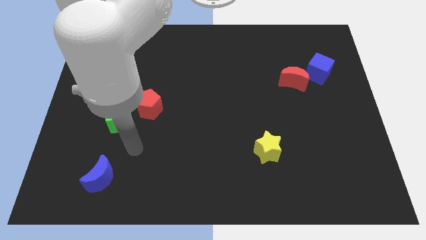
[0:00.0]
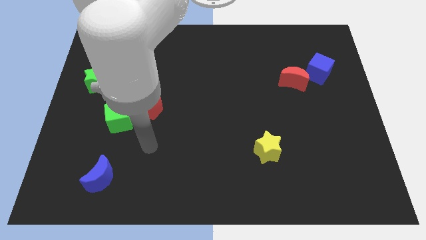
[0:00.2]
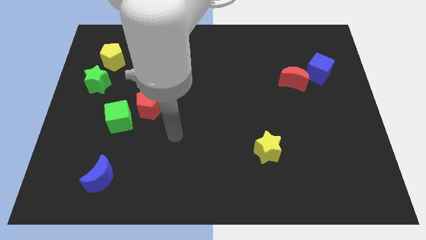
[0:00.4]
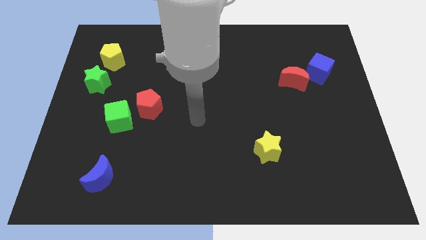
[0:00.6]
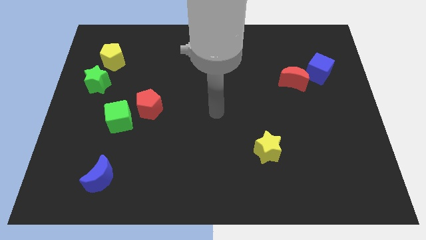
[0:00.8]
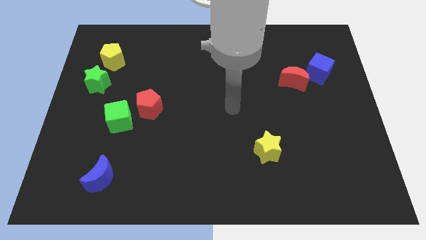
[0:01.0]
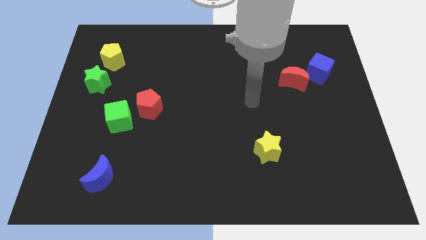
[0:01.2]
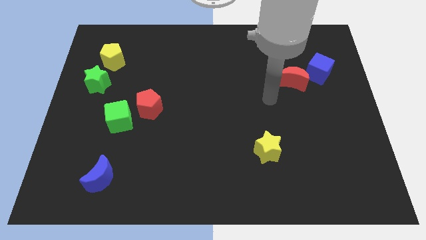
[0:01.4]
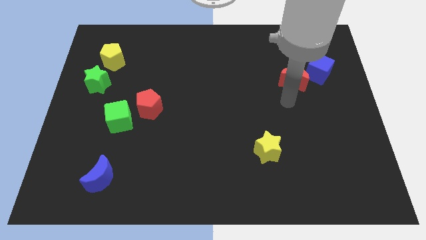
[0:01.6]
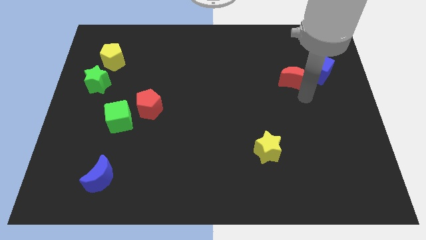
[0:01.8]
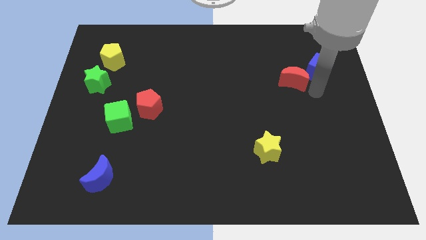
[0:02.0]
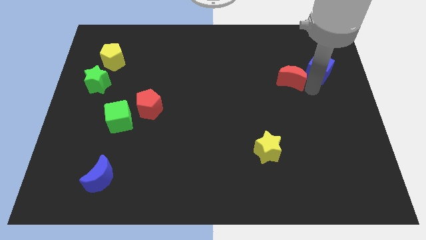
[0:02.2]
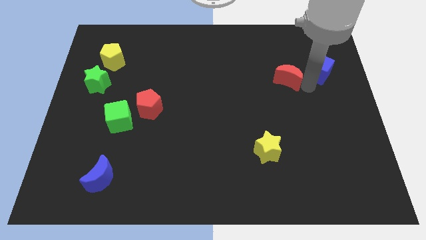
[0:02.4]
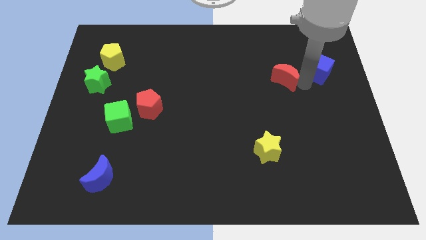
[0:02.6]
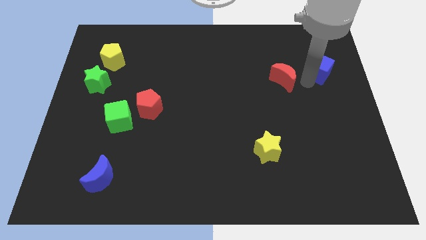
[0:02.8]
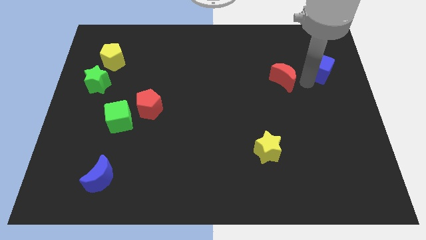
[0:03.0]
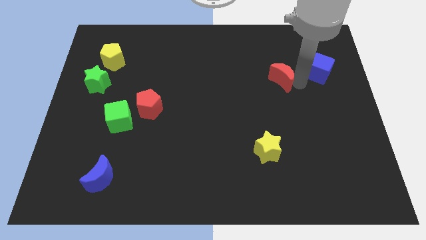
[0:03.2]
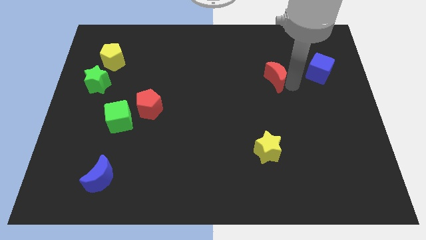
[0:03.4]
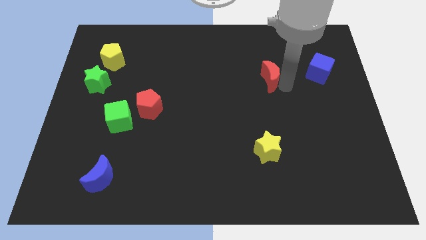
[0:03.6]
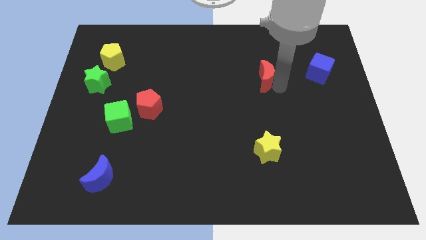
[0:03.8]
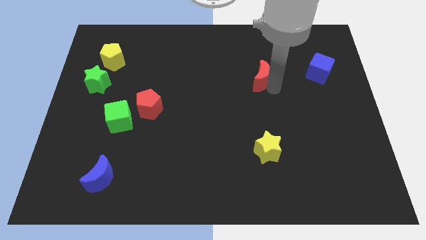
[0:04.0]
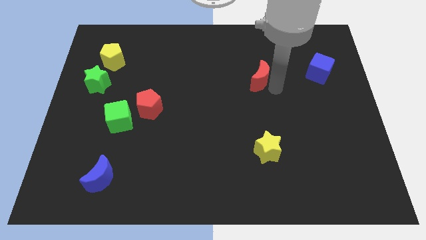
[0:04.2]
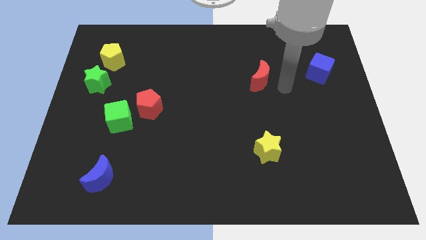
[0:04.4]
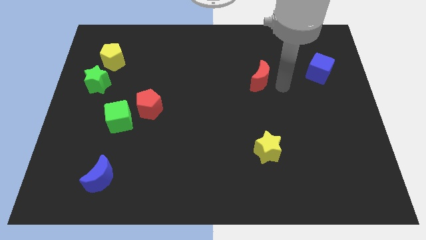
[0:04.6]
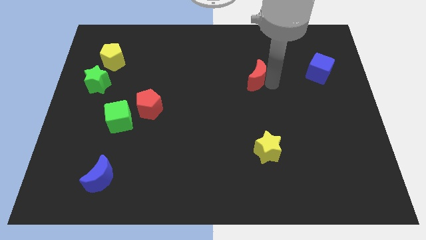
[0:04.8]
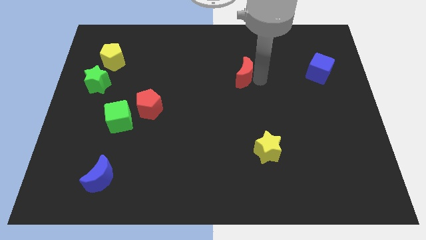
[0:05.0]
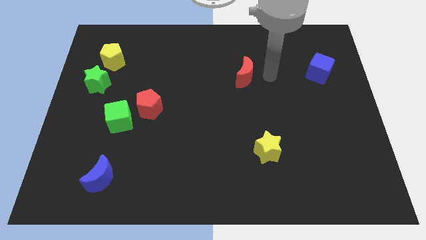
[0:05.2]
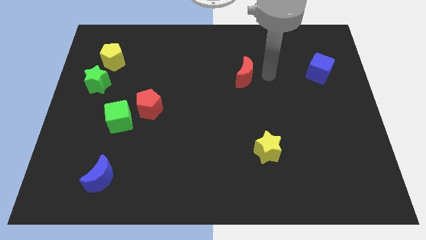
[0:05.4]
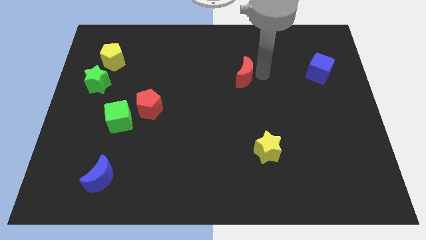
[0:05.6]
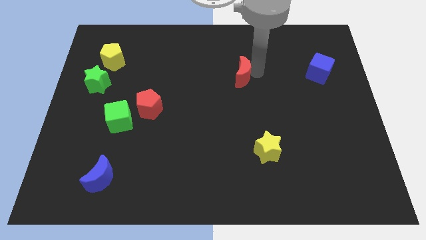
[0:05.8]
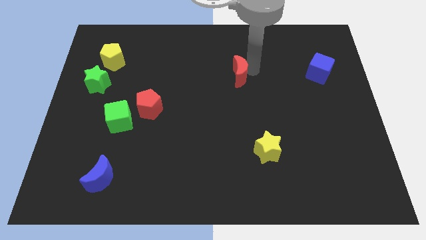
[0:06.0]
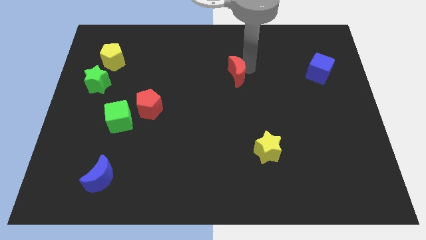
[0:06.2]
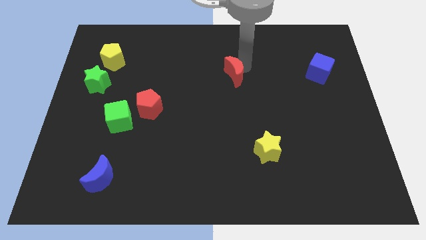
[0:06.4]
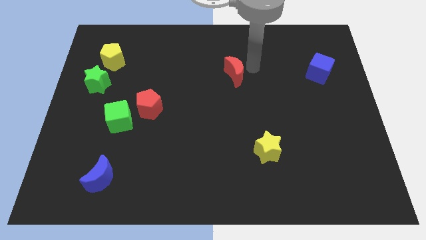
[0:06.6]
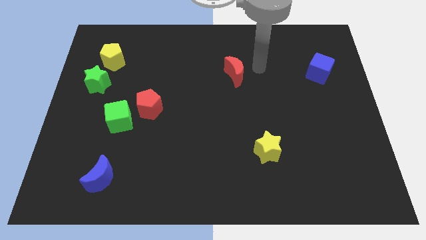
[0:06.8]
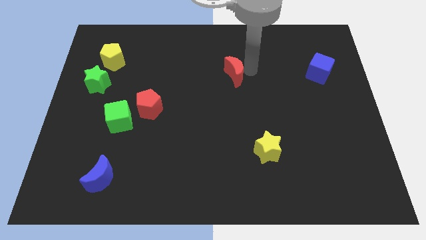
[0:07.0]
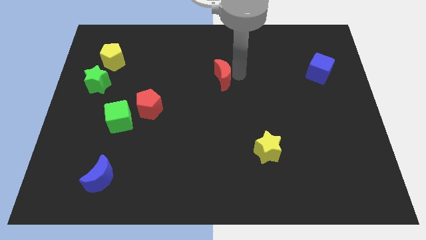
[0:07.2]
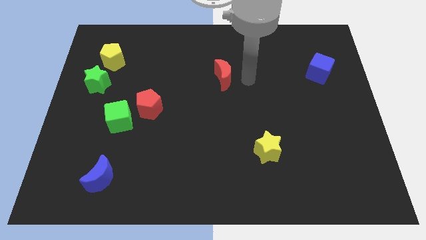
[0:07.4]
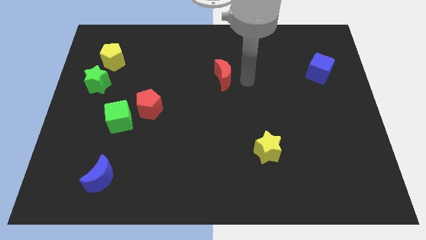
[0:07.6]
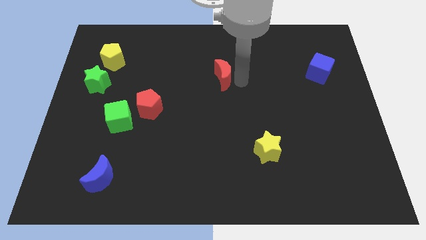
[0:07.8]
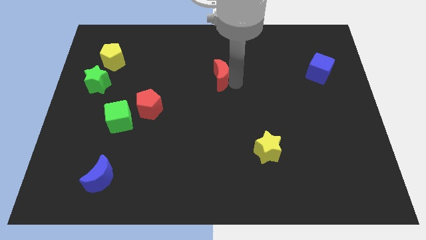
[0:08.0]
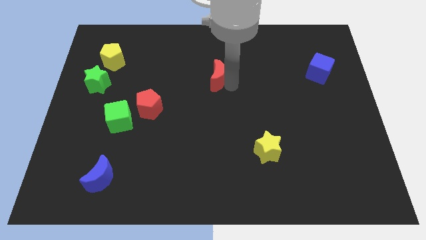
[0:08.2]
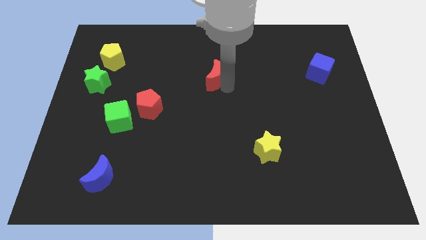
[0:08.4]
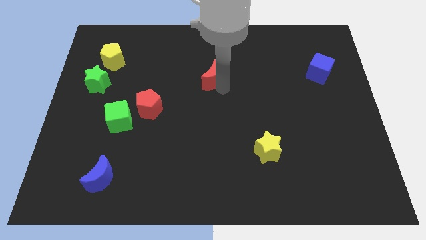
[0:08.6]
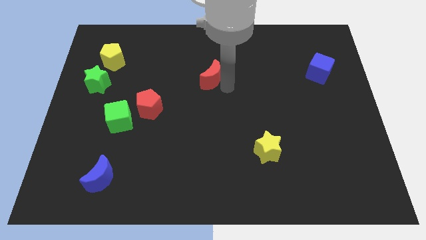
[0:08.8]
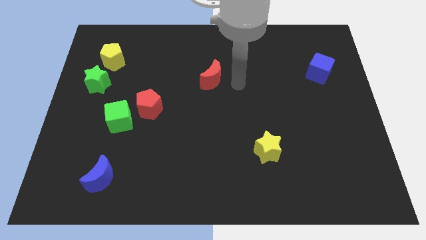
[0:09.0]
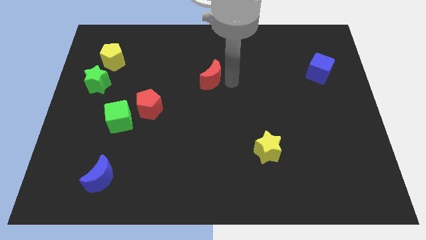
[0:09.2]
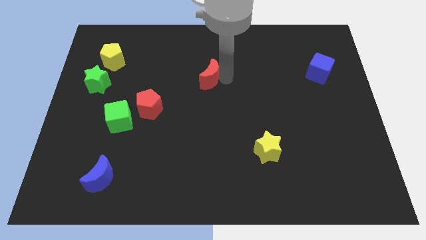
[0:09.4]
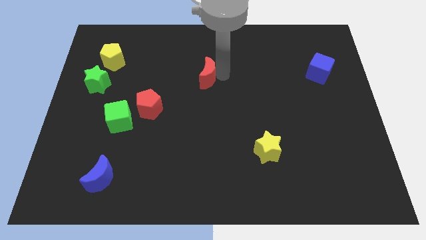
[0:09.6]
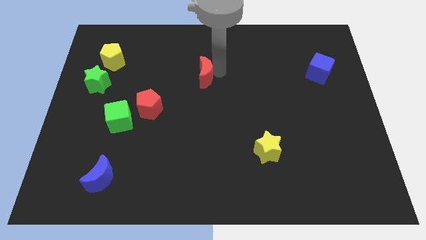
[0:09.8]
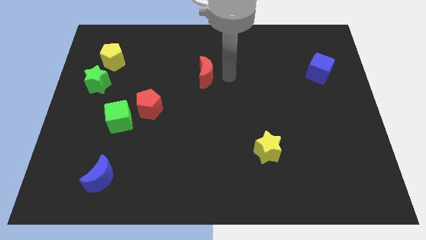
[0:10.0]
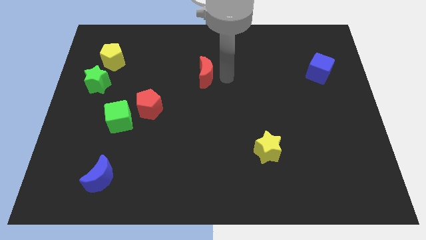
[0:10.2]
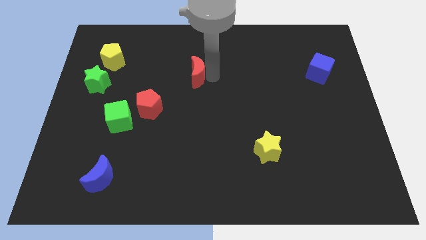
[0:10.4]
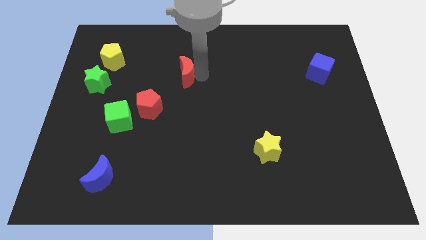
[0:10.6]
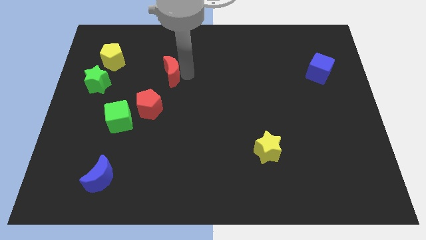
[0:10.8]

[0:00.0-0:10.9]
put the red moon to the top of the red pentagon

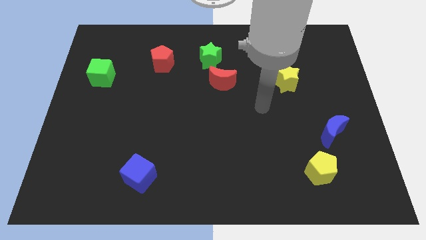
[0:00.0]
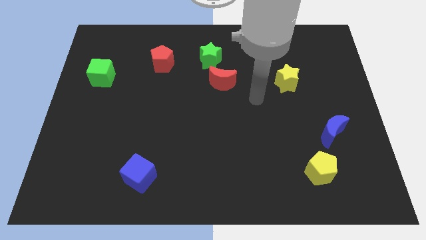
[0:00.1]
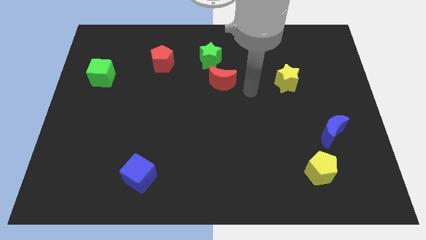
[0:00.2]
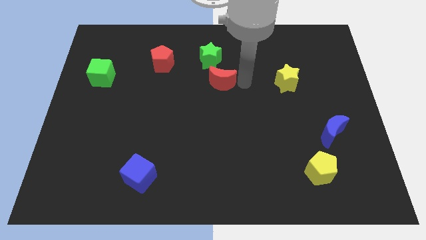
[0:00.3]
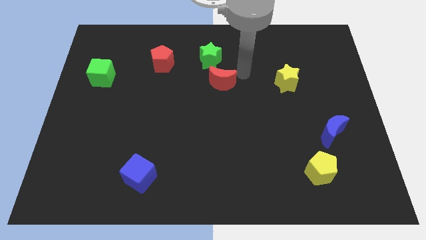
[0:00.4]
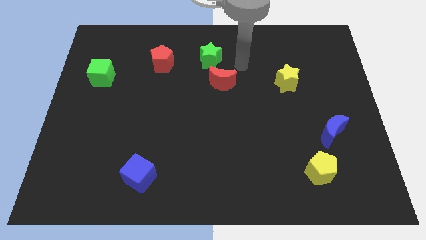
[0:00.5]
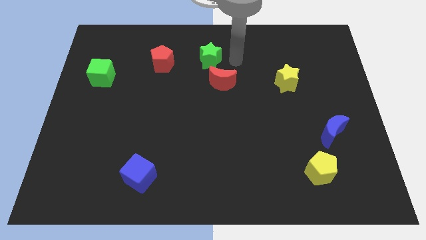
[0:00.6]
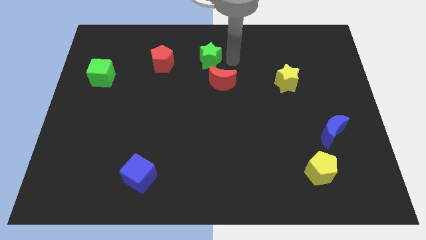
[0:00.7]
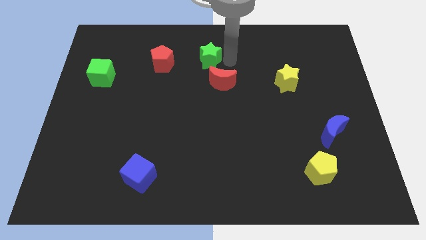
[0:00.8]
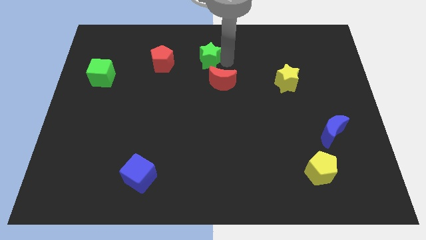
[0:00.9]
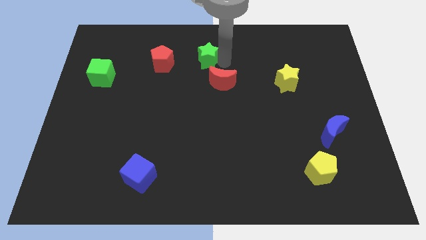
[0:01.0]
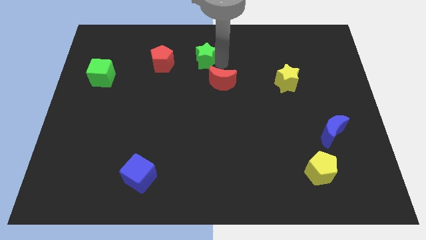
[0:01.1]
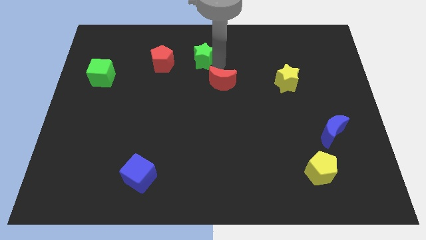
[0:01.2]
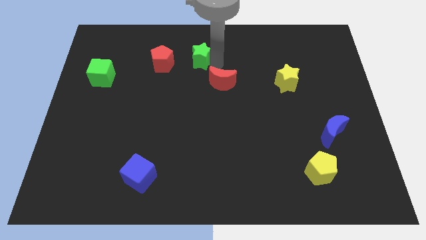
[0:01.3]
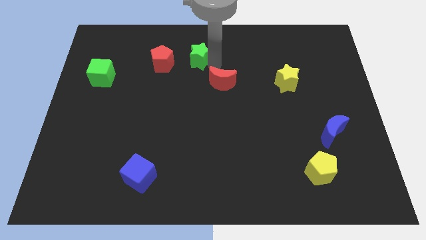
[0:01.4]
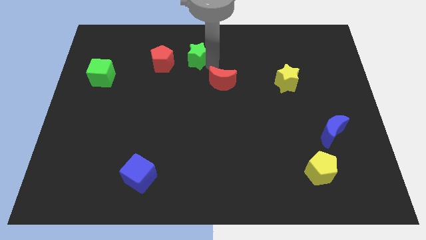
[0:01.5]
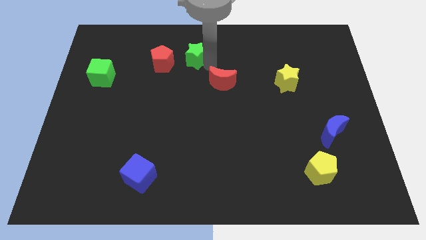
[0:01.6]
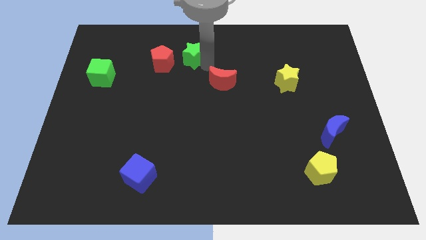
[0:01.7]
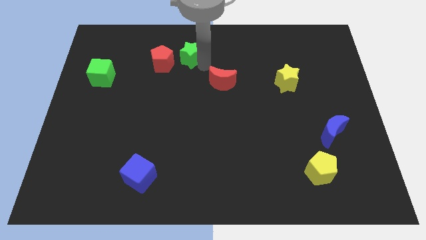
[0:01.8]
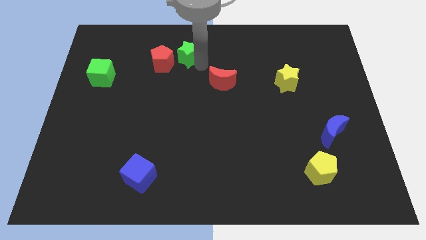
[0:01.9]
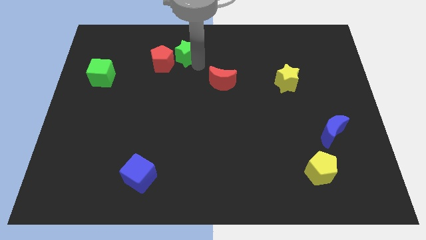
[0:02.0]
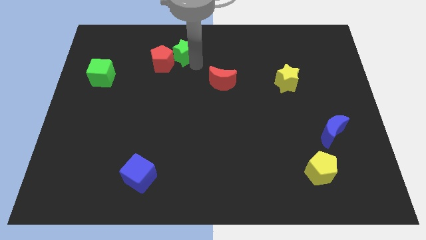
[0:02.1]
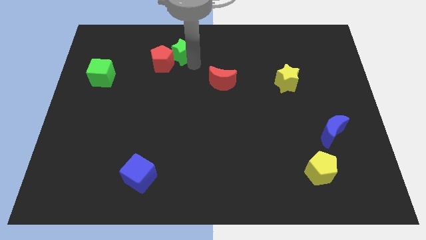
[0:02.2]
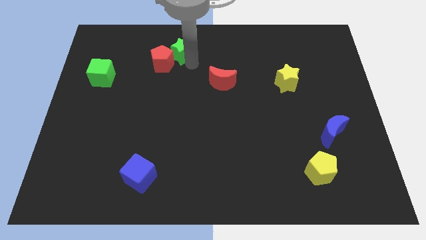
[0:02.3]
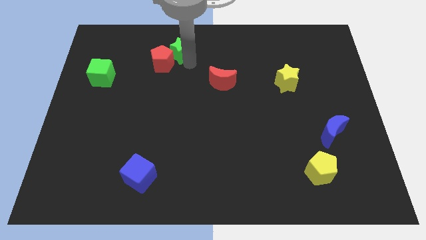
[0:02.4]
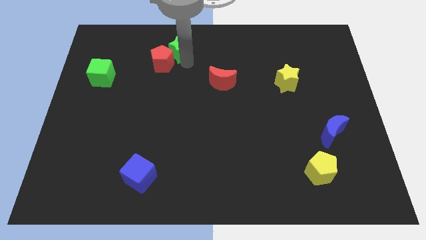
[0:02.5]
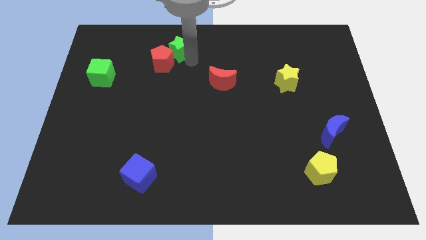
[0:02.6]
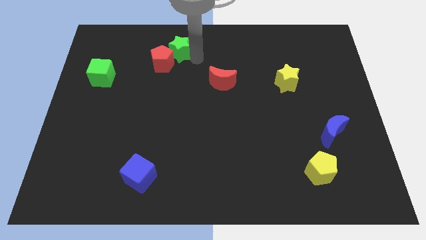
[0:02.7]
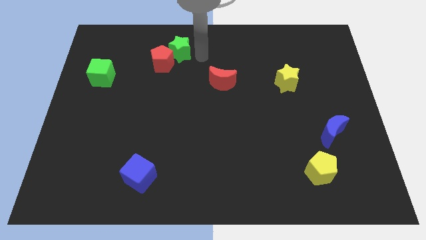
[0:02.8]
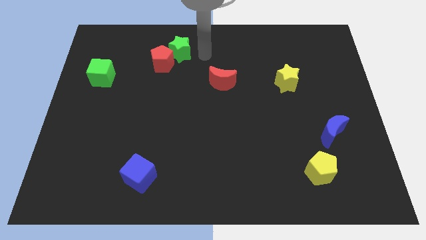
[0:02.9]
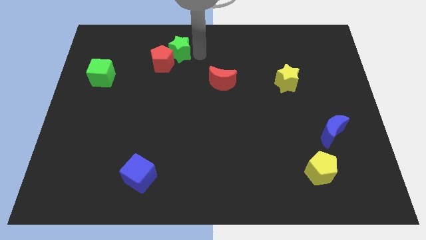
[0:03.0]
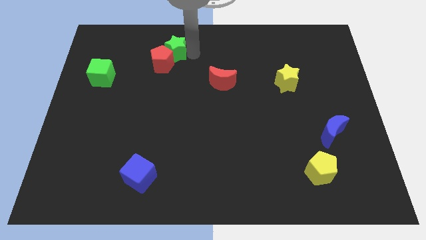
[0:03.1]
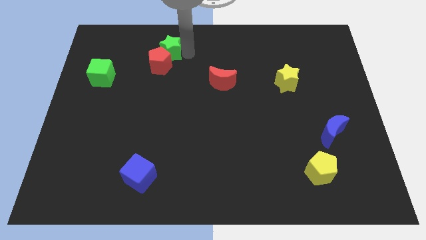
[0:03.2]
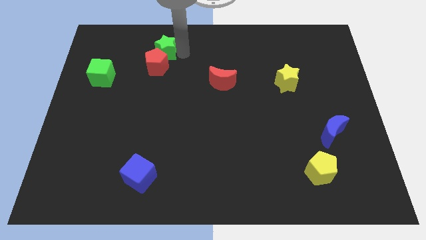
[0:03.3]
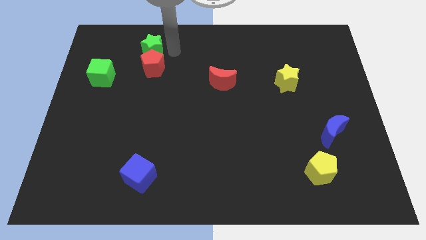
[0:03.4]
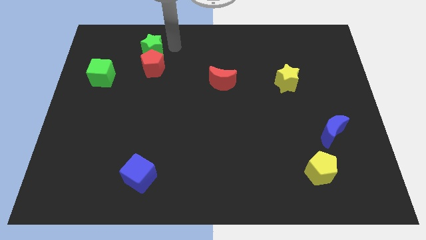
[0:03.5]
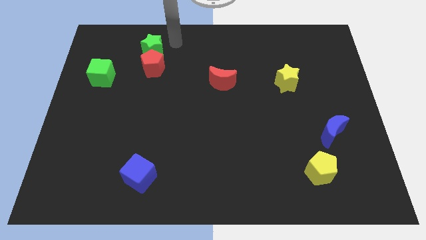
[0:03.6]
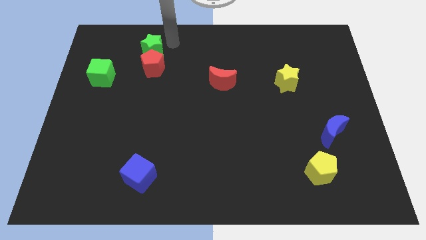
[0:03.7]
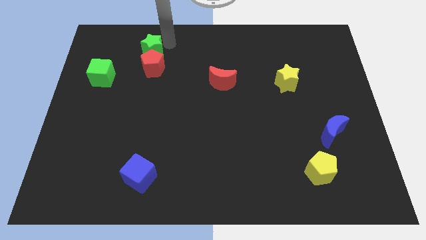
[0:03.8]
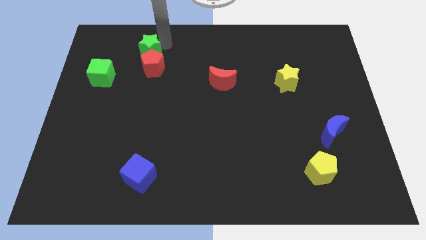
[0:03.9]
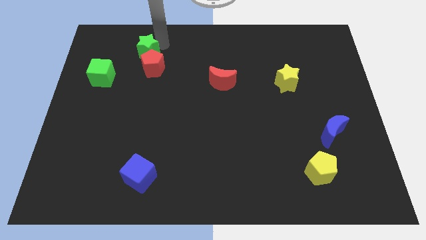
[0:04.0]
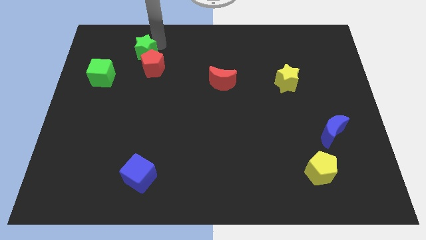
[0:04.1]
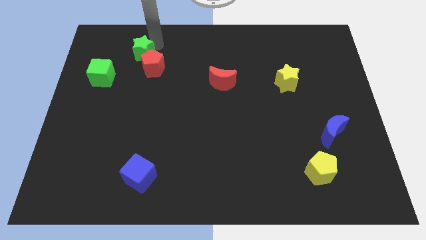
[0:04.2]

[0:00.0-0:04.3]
slide the green star to the top right of the green cube
